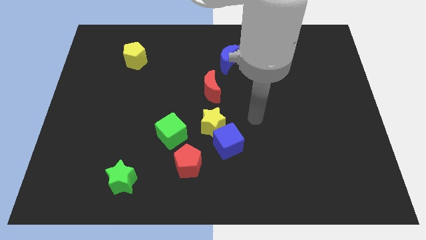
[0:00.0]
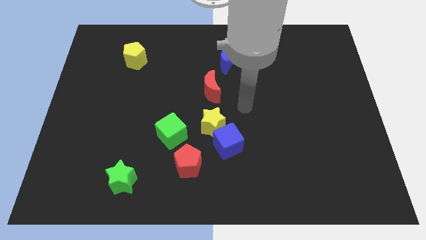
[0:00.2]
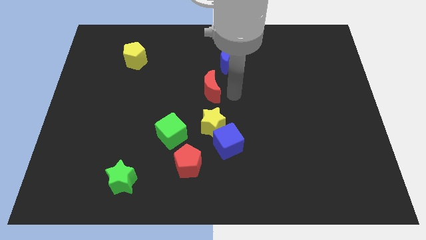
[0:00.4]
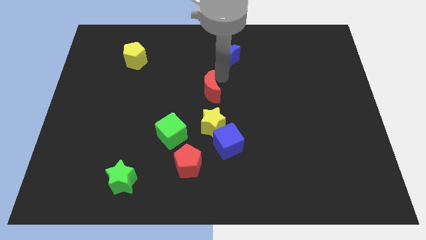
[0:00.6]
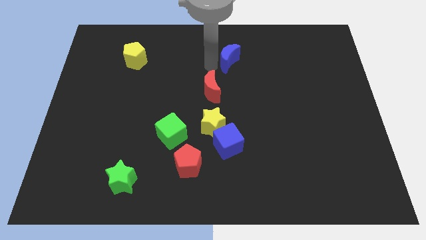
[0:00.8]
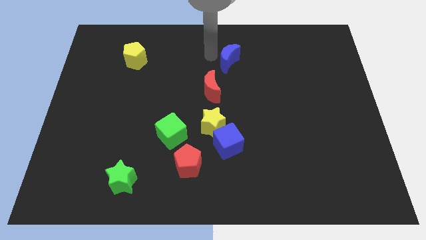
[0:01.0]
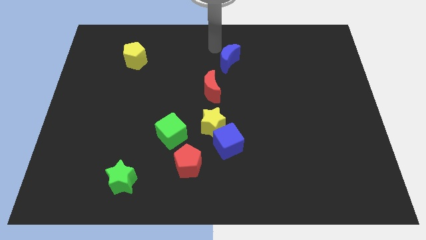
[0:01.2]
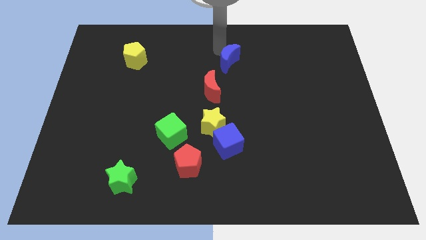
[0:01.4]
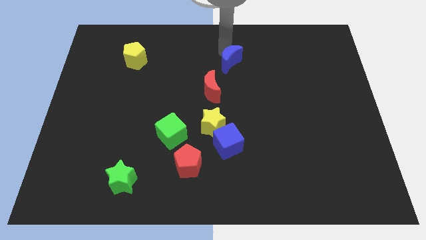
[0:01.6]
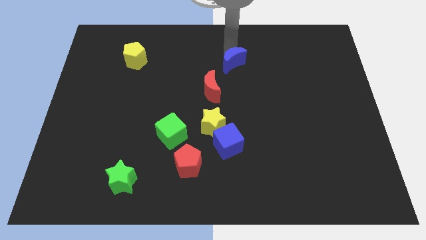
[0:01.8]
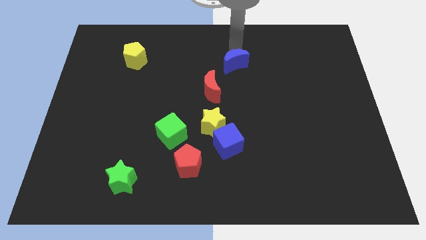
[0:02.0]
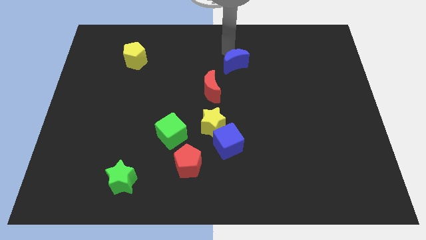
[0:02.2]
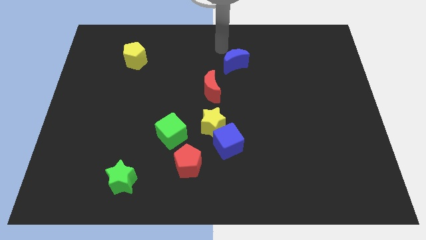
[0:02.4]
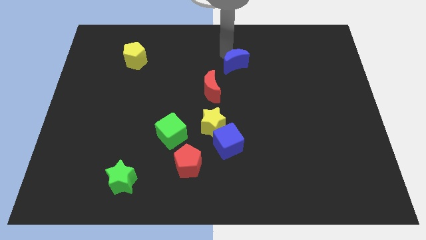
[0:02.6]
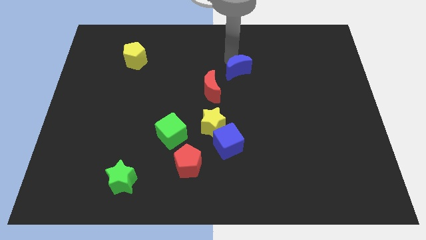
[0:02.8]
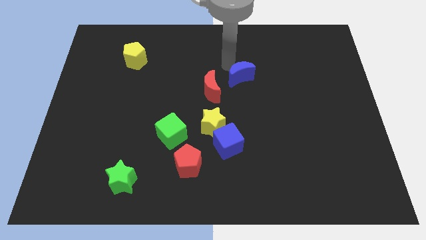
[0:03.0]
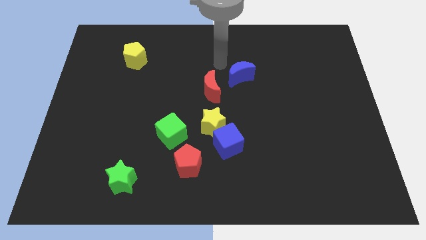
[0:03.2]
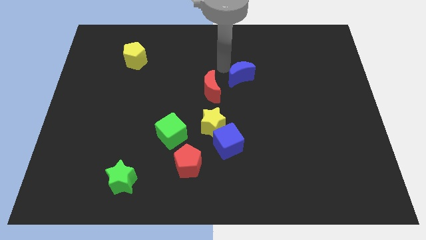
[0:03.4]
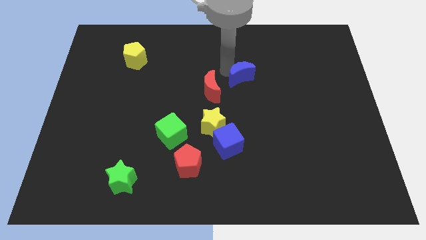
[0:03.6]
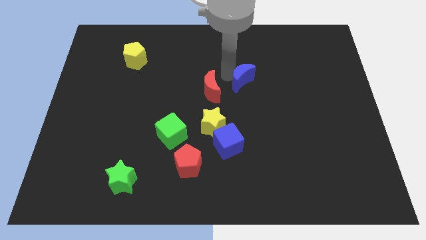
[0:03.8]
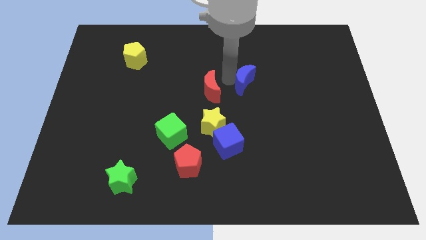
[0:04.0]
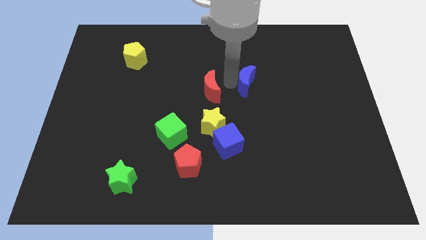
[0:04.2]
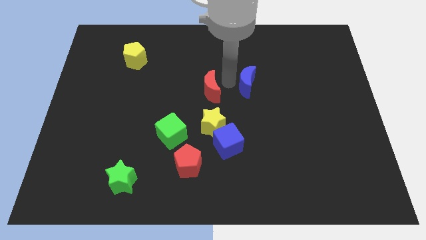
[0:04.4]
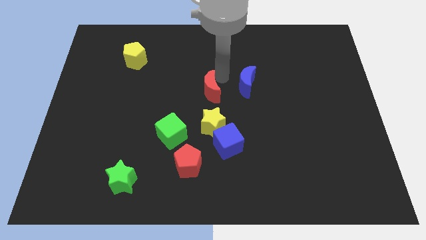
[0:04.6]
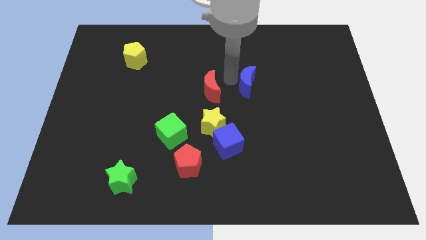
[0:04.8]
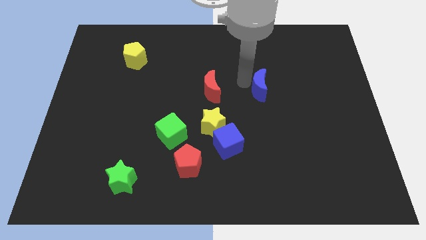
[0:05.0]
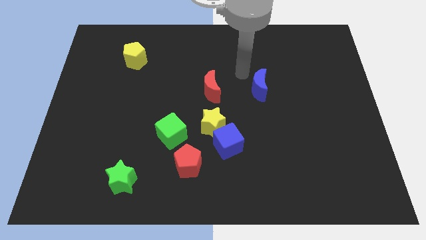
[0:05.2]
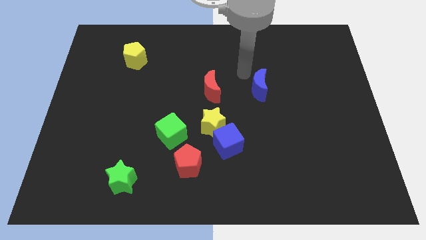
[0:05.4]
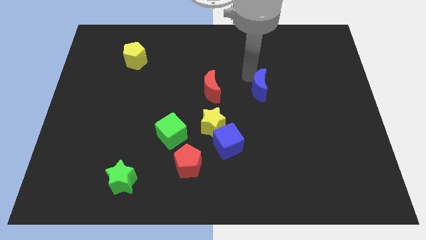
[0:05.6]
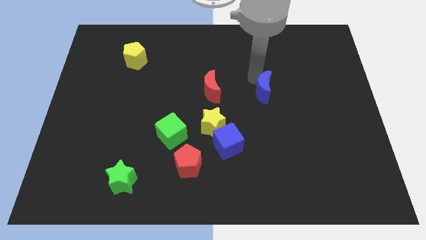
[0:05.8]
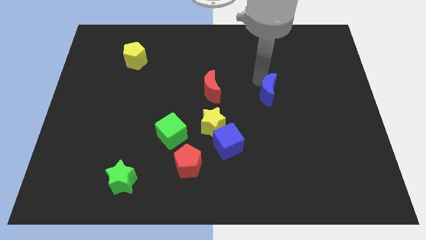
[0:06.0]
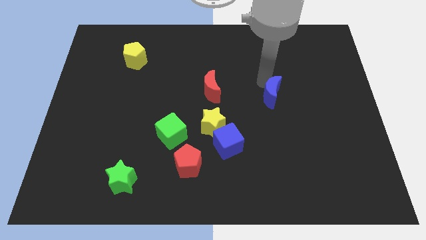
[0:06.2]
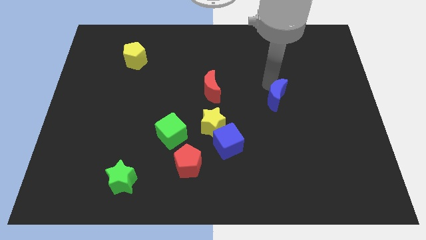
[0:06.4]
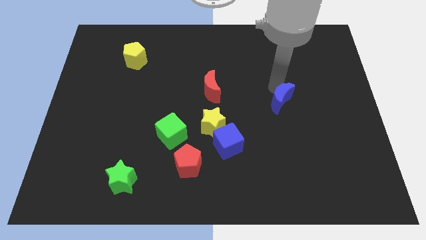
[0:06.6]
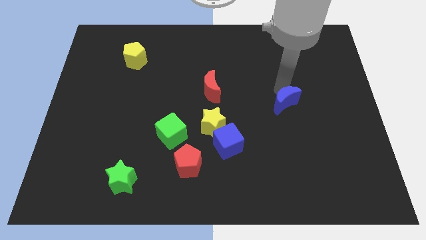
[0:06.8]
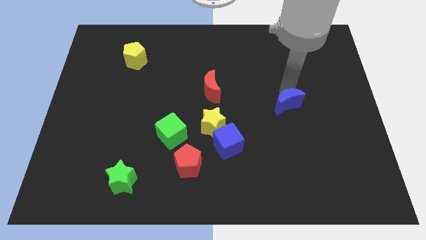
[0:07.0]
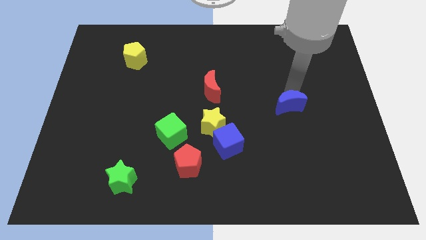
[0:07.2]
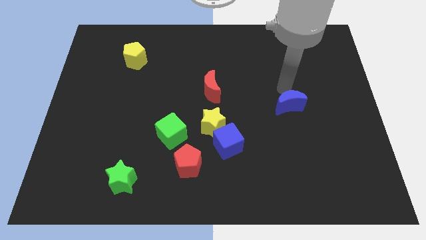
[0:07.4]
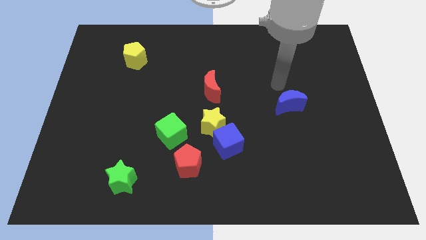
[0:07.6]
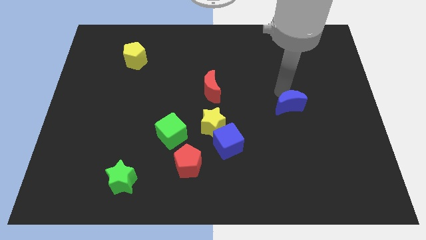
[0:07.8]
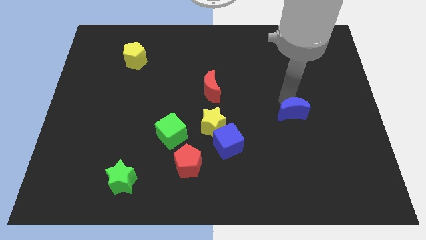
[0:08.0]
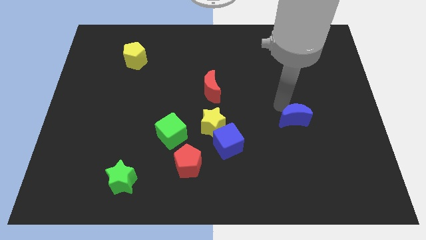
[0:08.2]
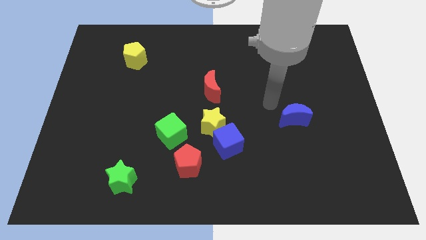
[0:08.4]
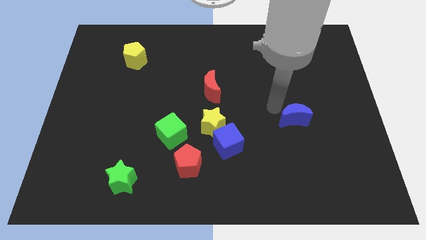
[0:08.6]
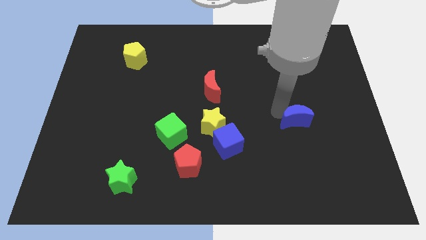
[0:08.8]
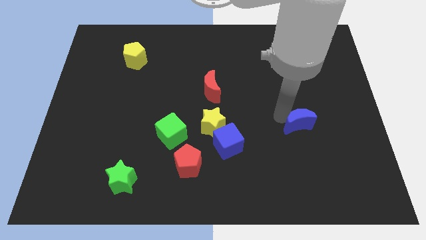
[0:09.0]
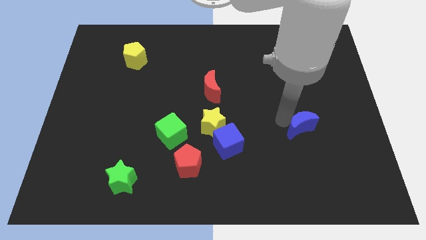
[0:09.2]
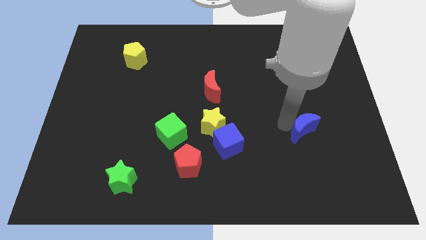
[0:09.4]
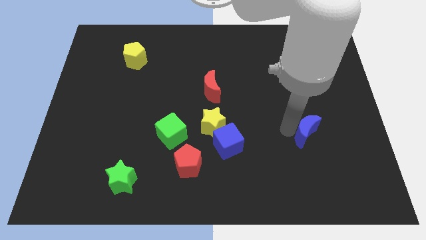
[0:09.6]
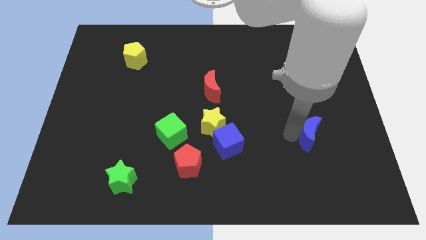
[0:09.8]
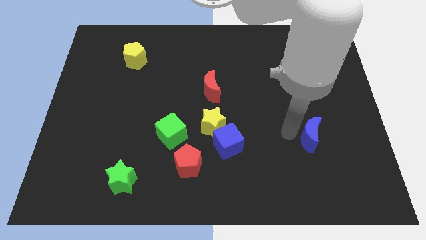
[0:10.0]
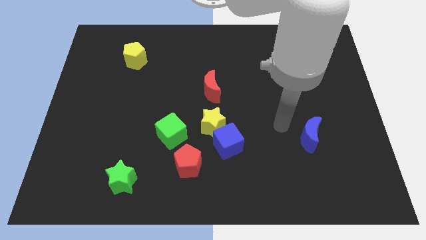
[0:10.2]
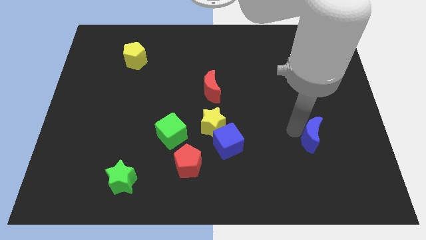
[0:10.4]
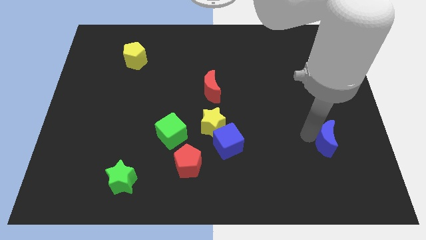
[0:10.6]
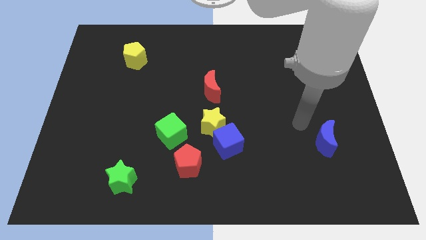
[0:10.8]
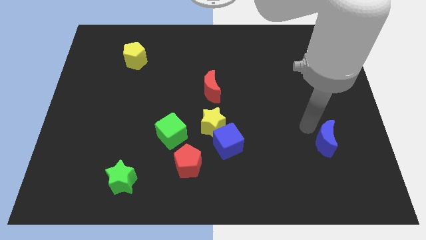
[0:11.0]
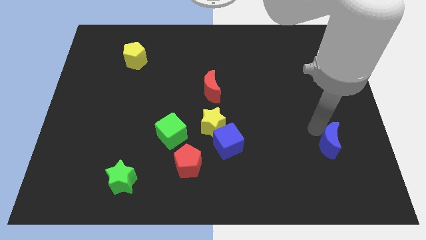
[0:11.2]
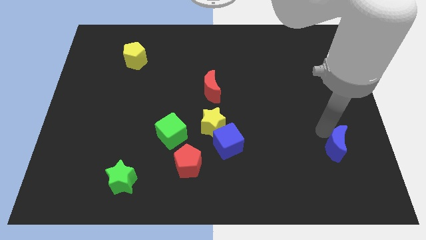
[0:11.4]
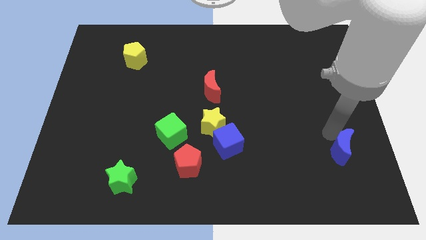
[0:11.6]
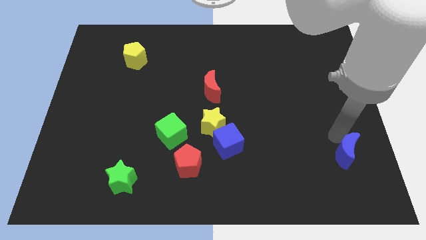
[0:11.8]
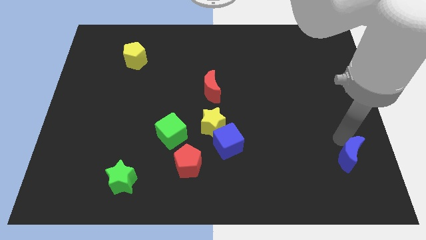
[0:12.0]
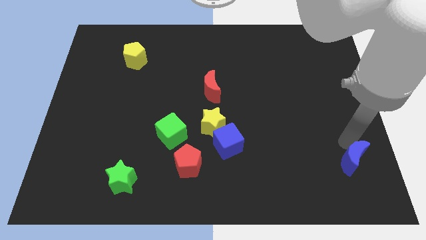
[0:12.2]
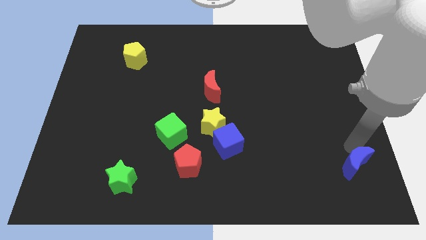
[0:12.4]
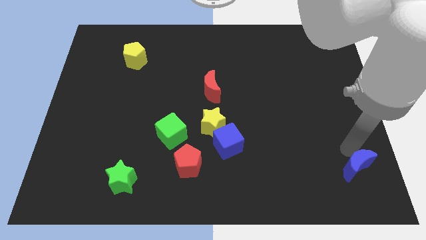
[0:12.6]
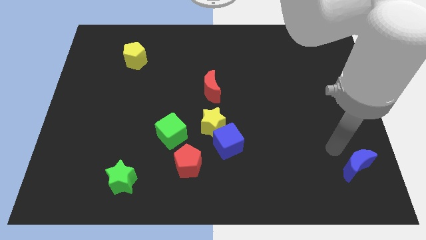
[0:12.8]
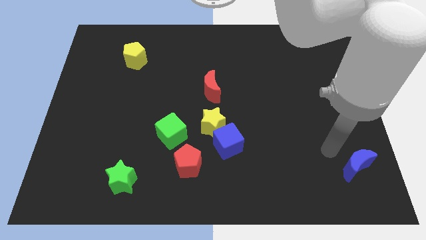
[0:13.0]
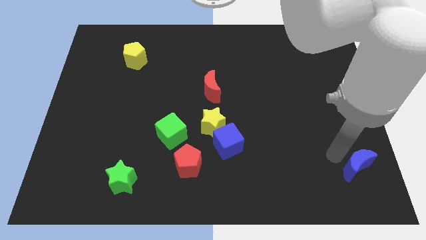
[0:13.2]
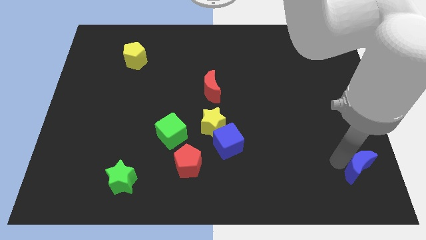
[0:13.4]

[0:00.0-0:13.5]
push the blue moon to the bottom right of the board
